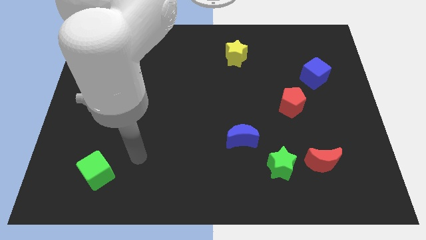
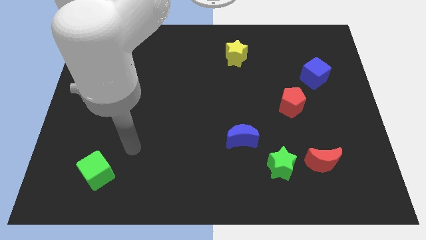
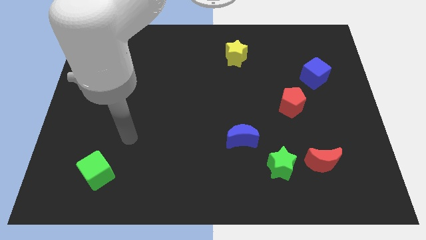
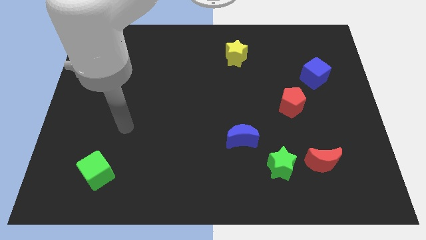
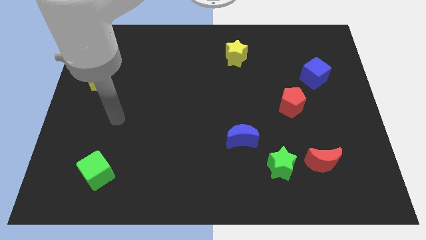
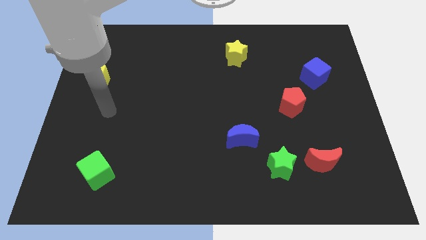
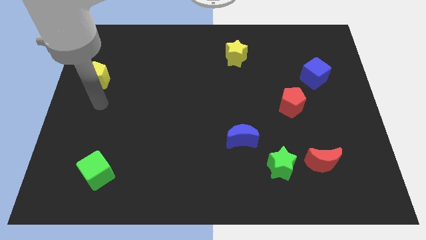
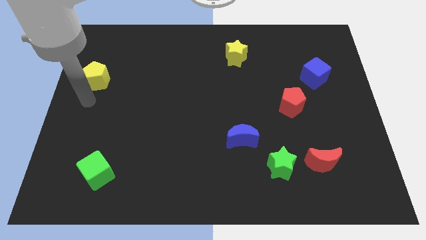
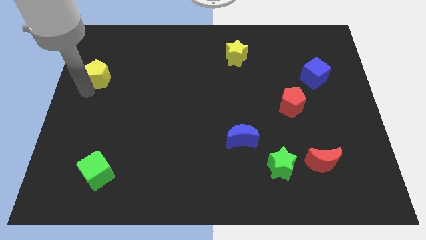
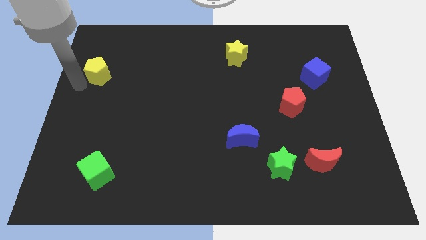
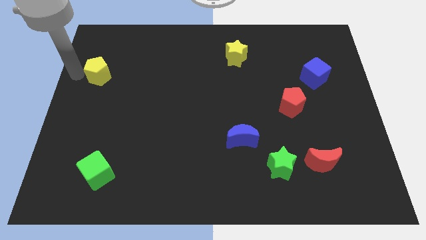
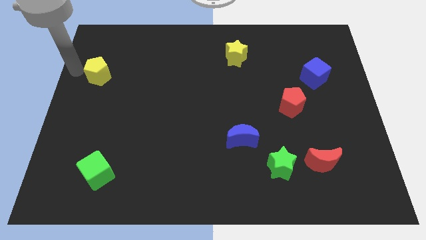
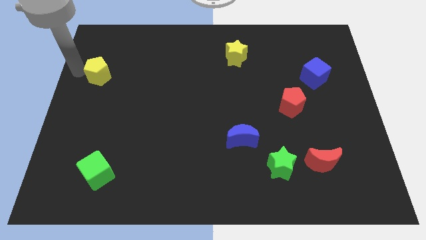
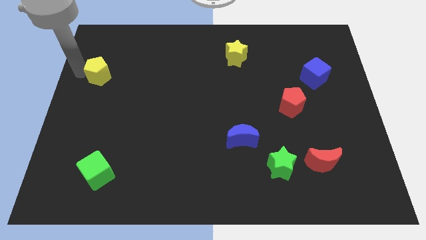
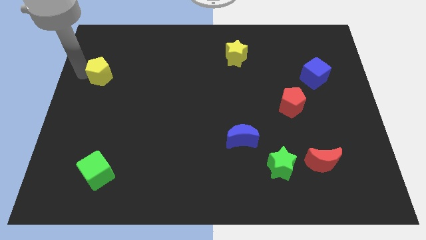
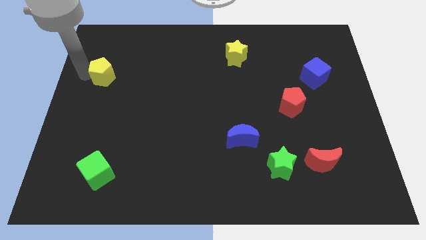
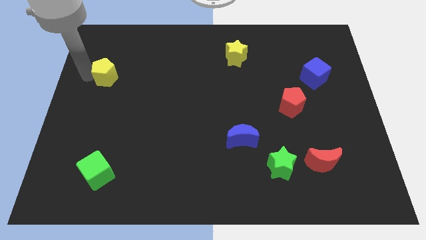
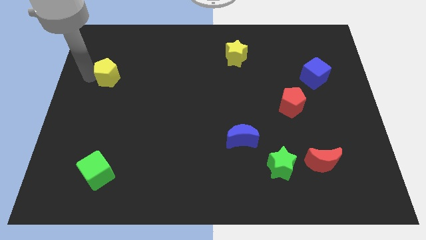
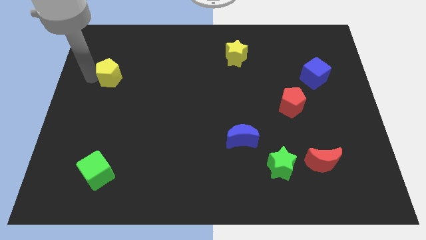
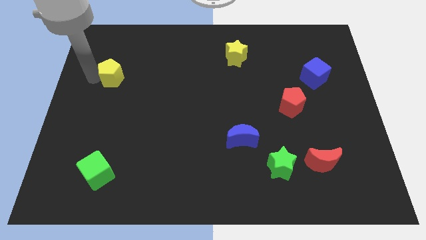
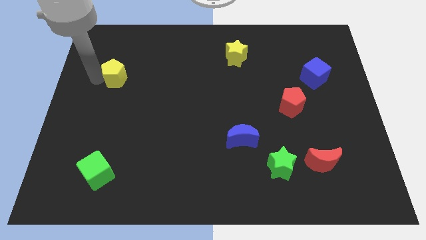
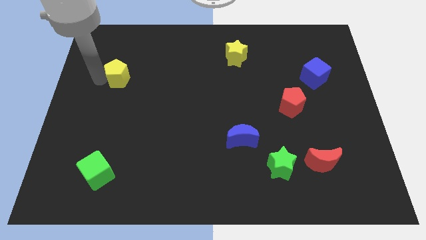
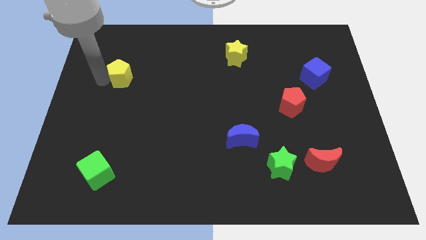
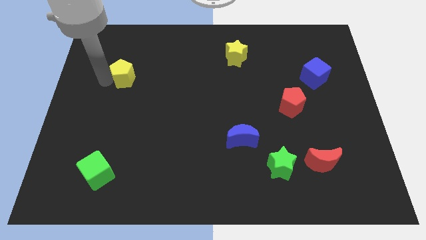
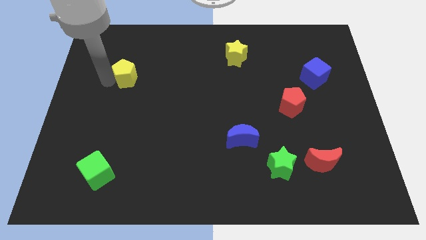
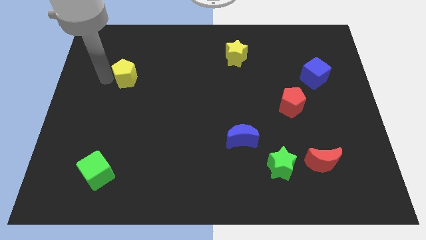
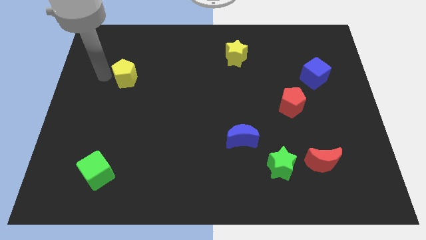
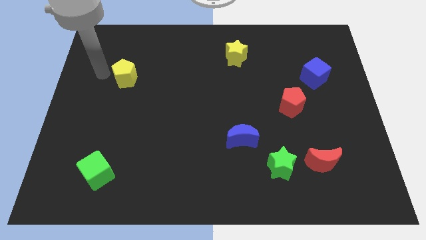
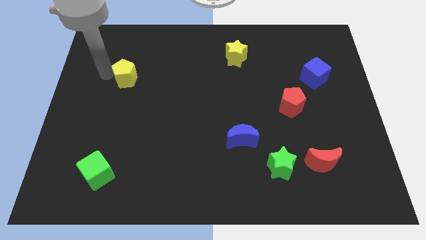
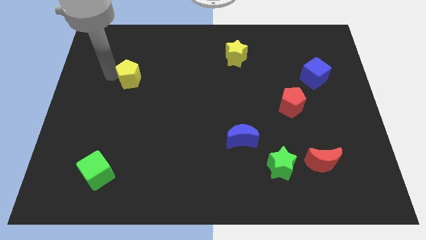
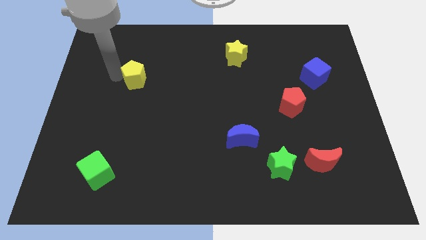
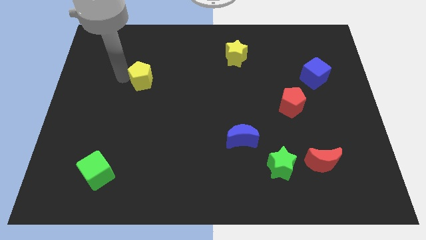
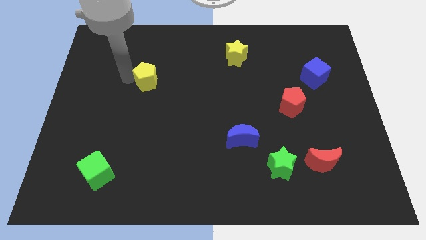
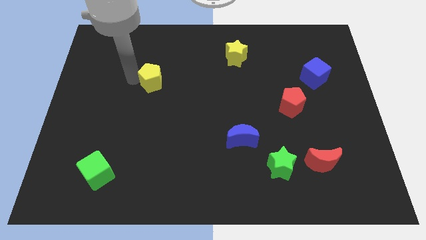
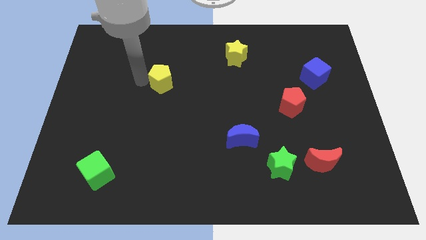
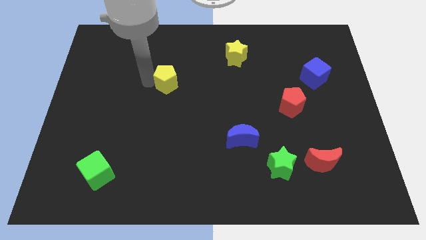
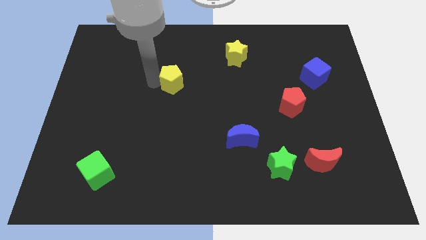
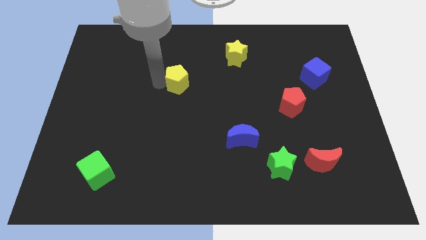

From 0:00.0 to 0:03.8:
push the yellow pentagon to the right

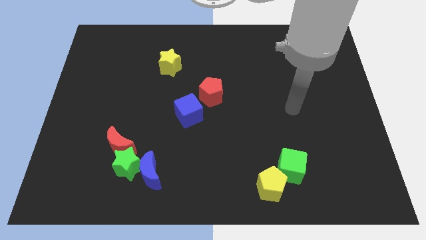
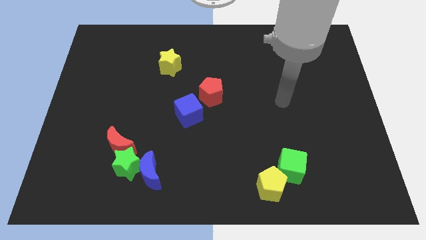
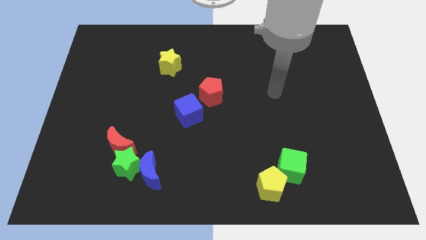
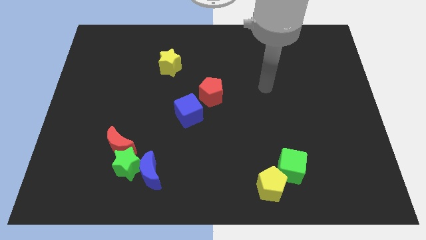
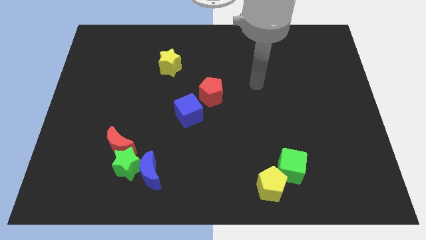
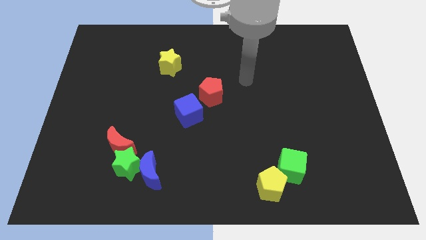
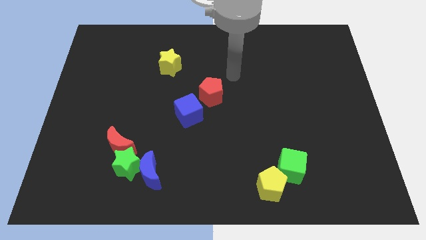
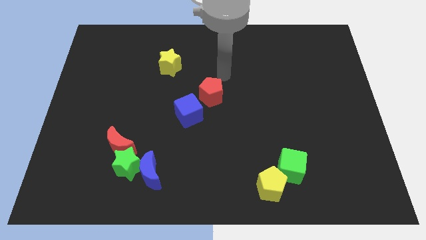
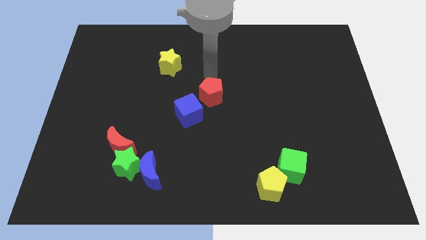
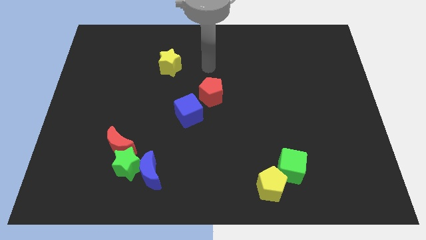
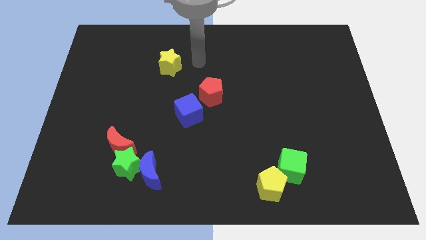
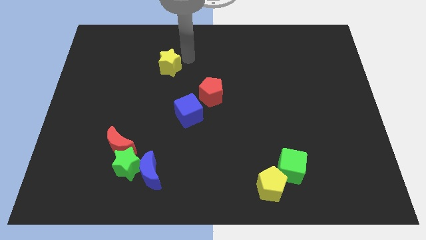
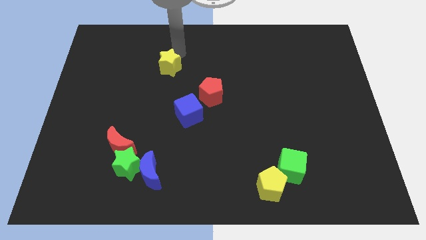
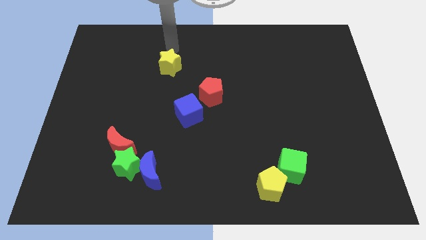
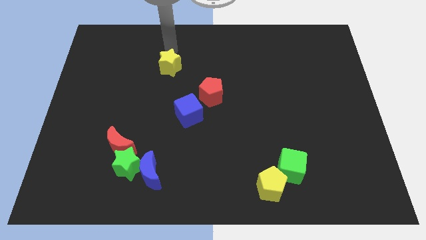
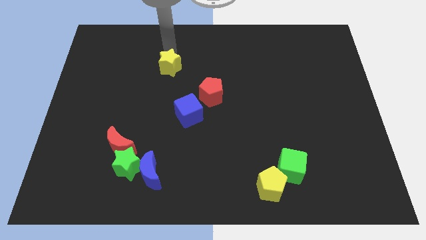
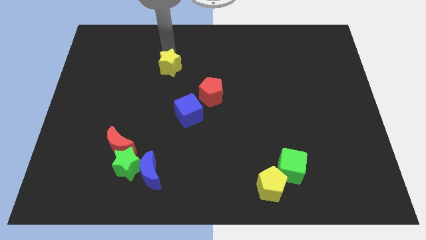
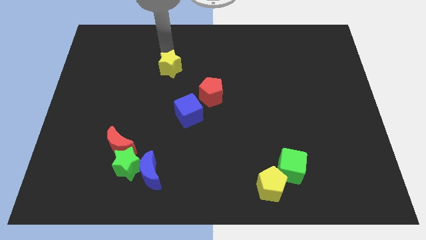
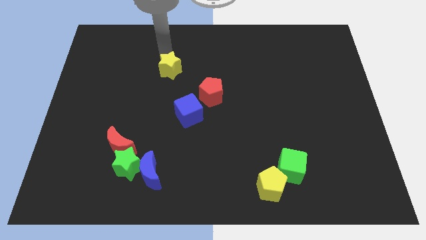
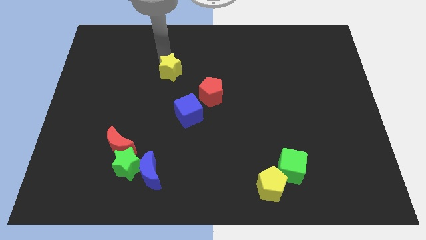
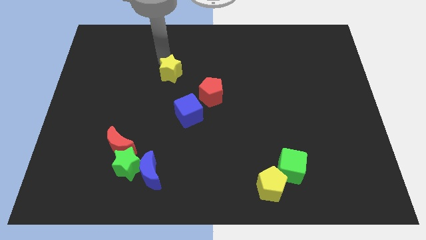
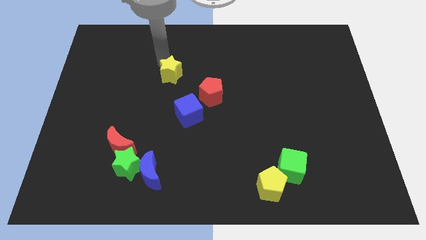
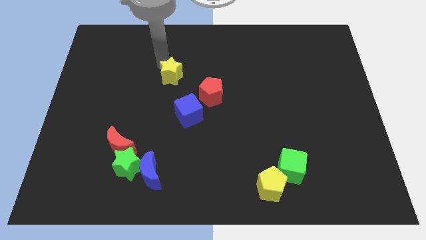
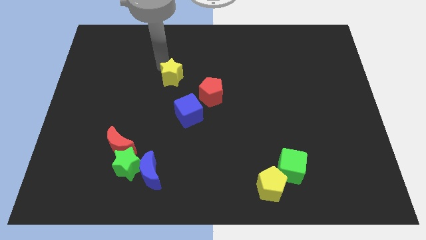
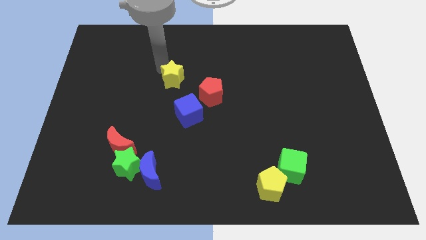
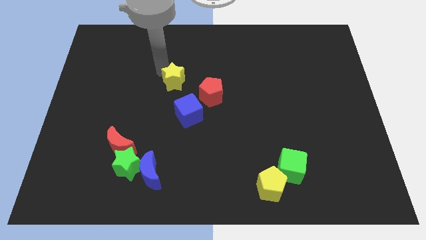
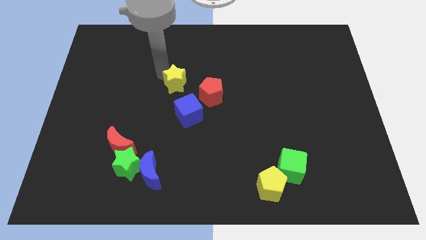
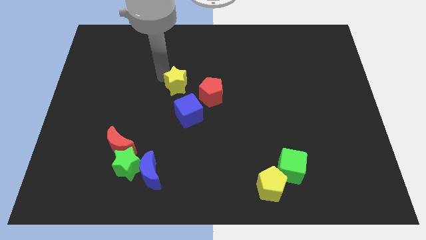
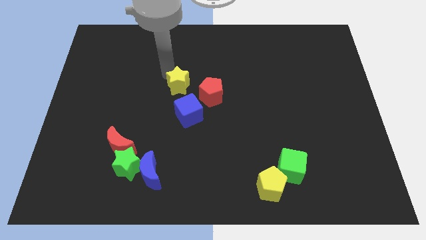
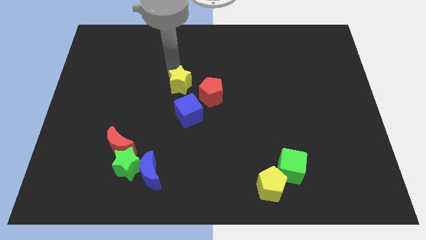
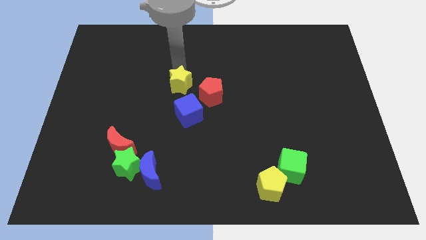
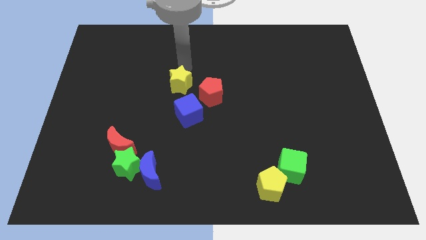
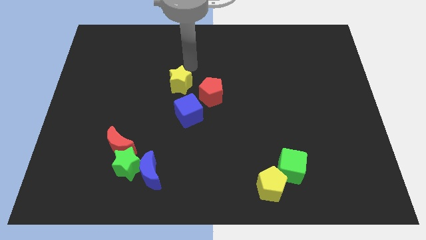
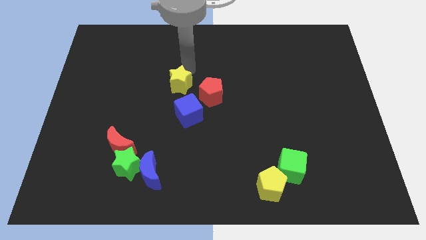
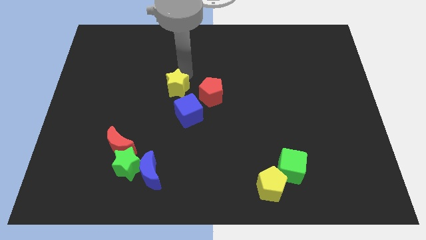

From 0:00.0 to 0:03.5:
slightly slide the yellow star downwards

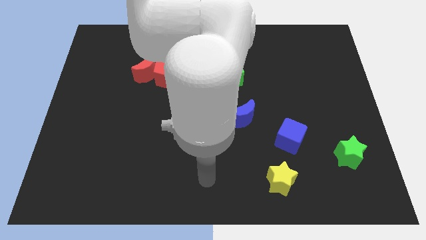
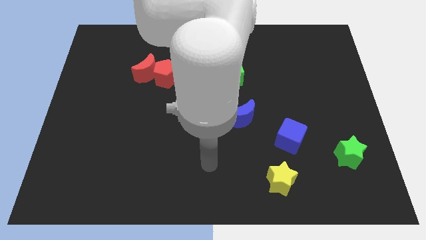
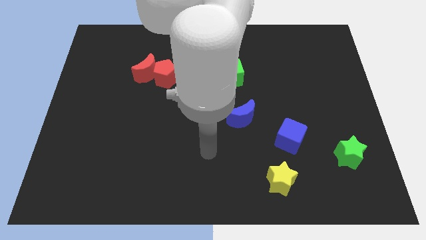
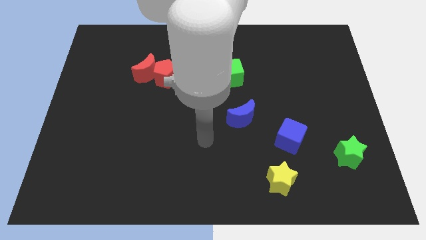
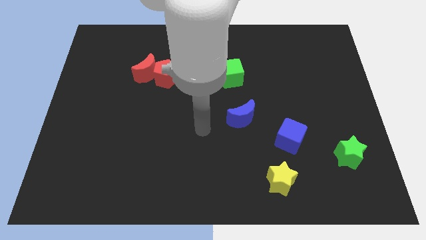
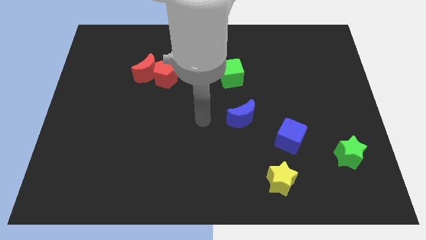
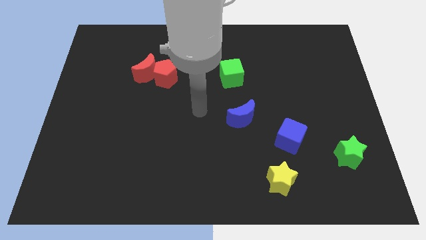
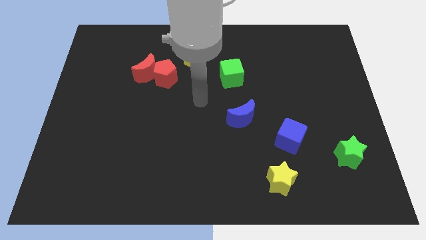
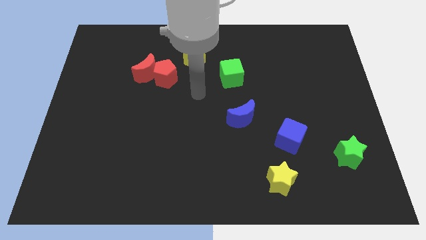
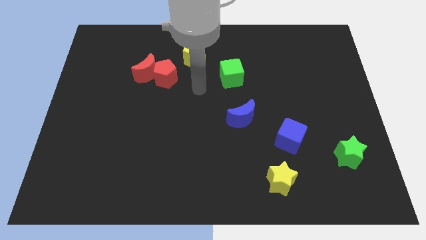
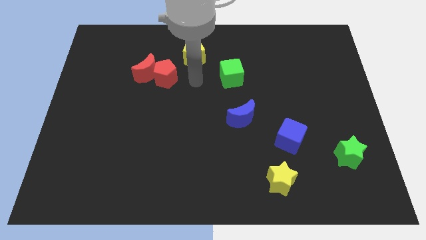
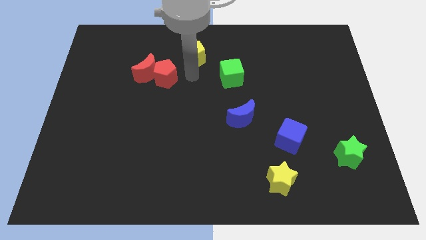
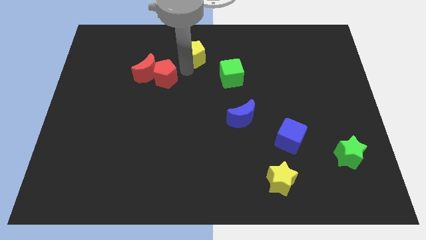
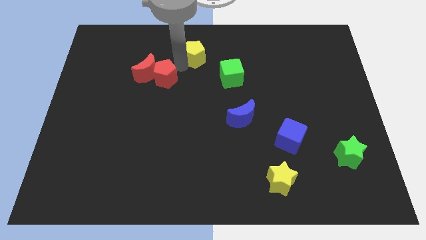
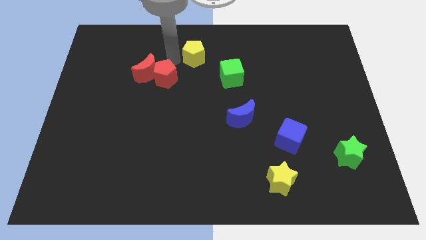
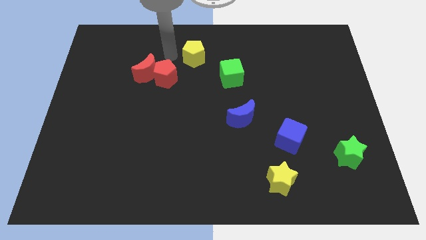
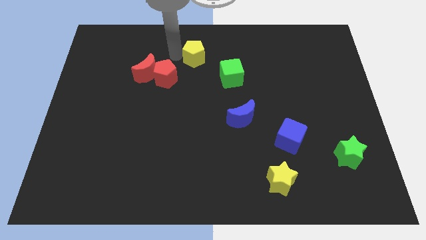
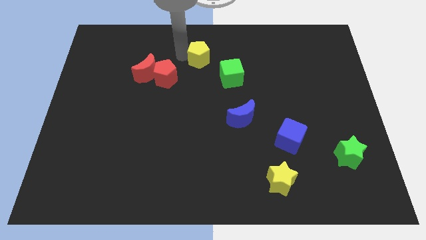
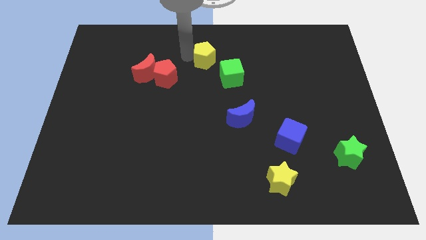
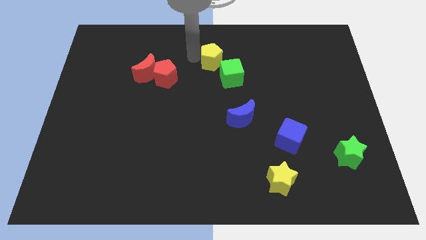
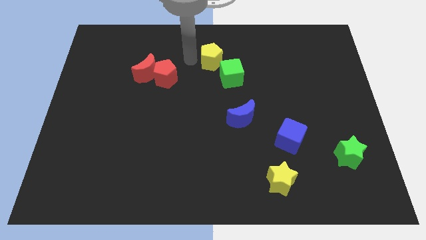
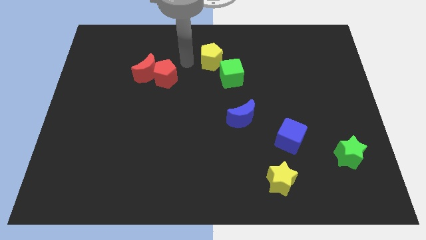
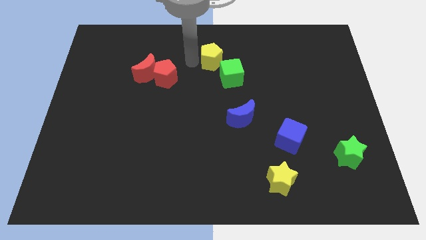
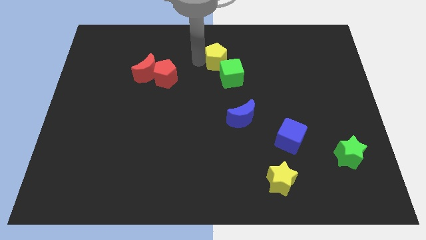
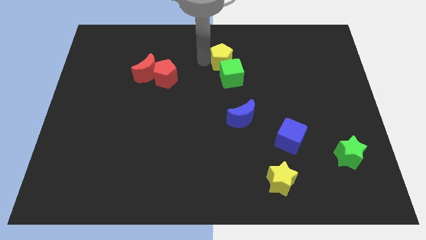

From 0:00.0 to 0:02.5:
slide the yellow pentagon a little bit right
